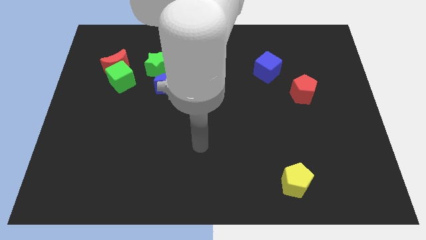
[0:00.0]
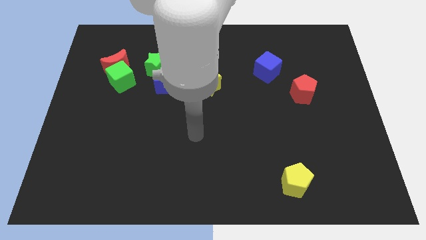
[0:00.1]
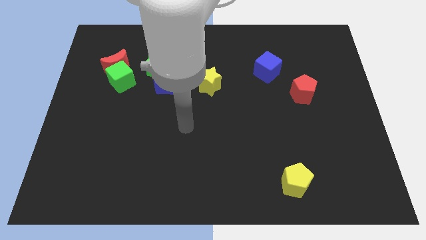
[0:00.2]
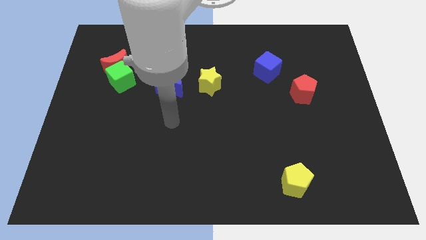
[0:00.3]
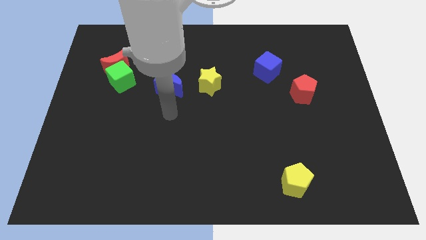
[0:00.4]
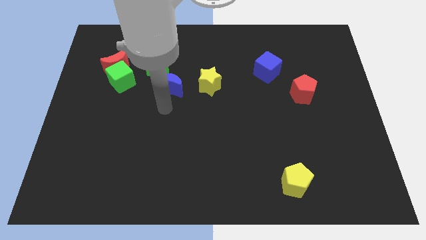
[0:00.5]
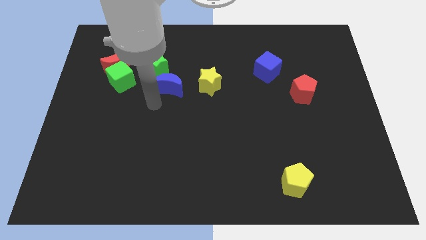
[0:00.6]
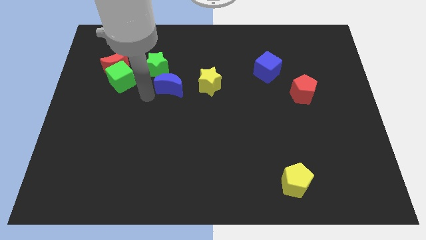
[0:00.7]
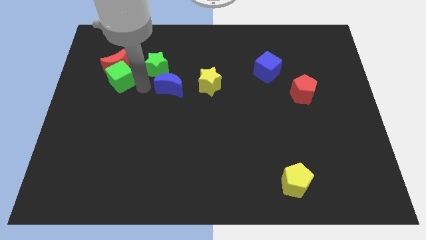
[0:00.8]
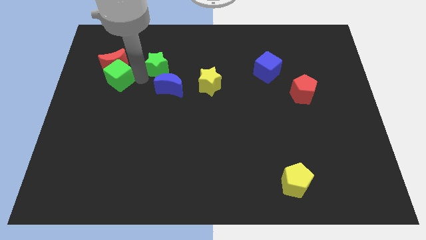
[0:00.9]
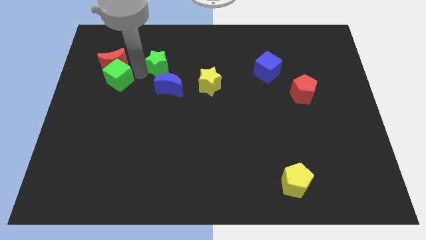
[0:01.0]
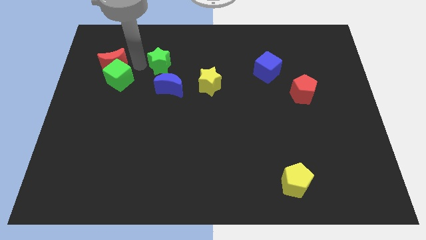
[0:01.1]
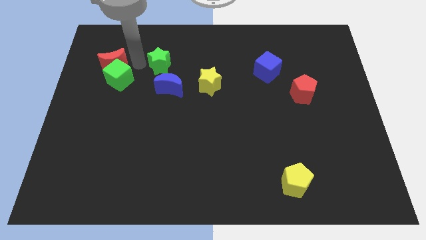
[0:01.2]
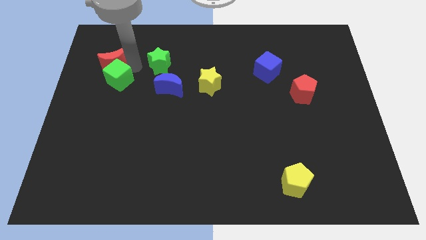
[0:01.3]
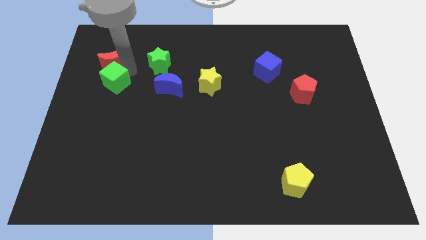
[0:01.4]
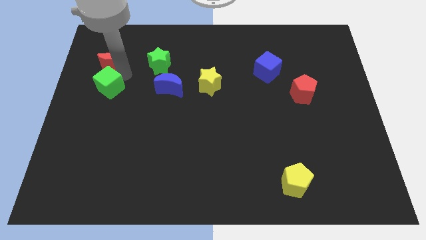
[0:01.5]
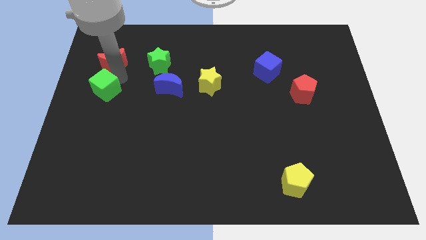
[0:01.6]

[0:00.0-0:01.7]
separate the green cube from the red moon and green star

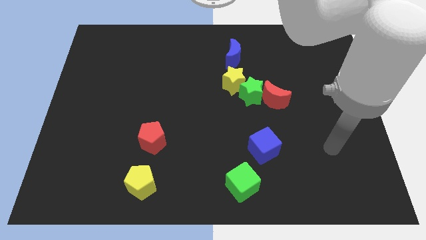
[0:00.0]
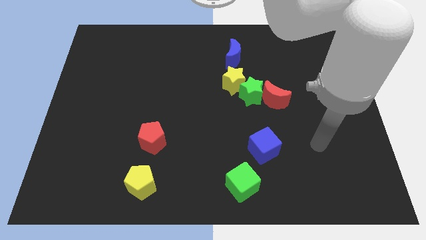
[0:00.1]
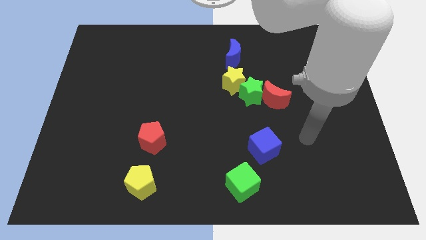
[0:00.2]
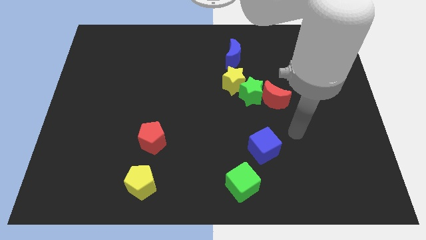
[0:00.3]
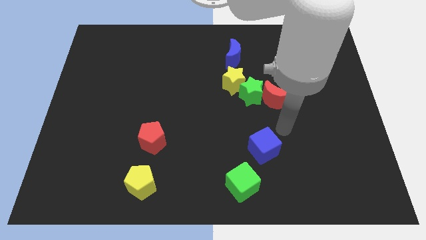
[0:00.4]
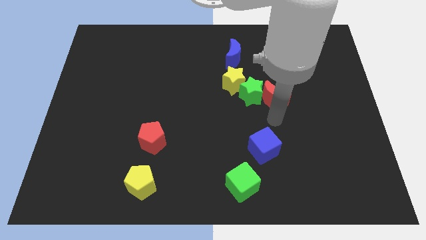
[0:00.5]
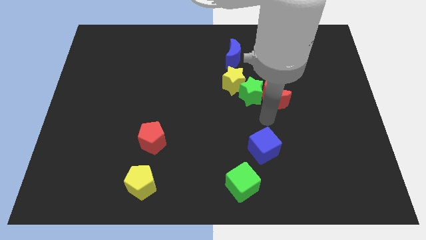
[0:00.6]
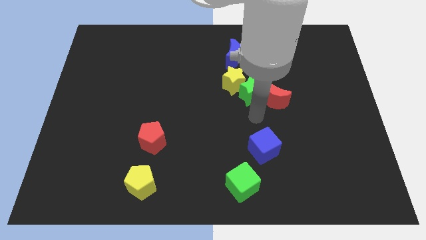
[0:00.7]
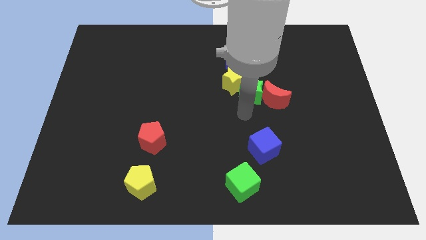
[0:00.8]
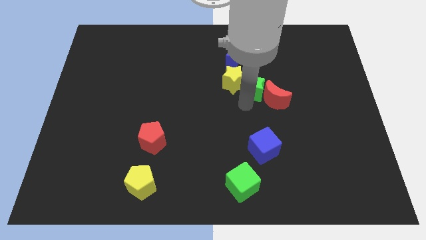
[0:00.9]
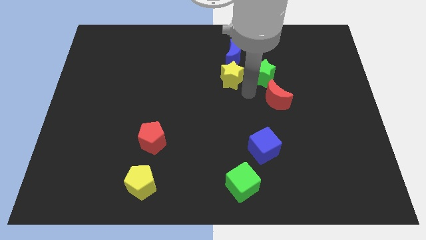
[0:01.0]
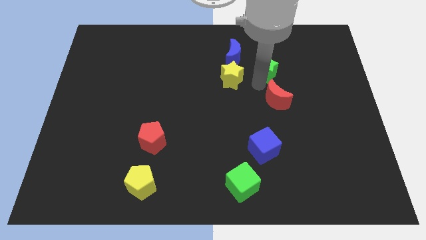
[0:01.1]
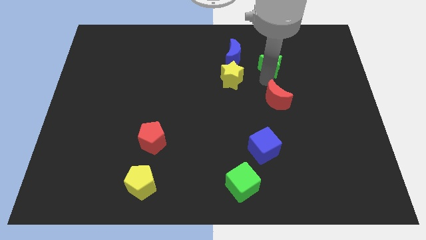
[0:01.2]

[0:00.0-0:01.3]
move the red moon away from the green star

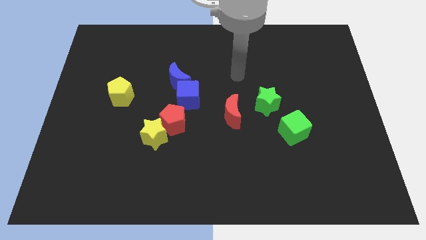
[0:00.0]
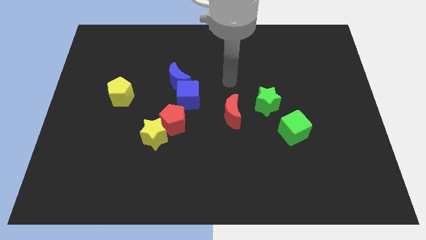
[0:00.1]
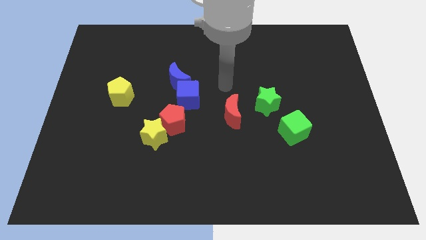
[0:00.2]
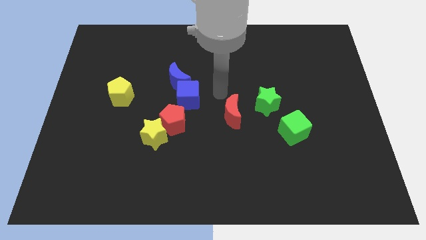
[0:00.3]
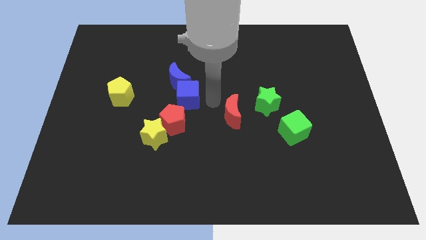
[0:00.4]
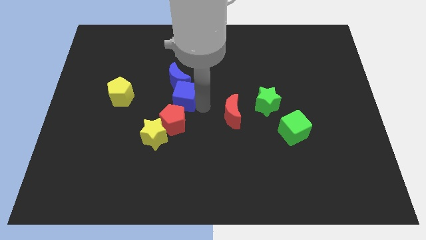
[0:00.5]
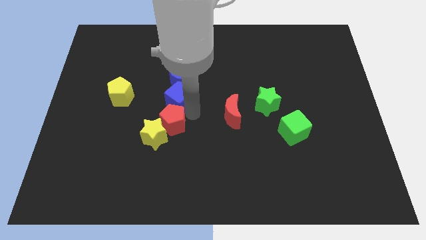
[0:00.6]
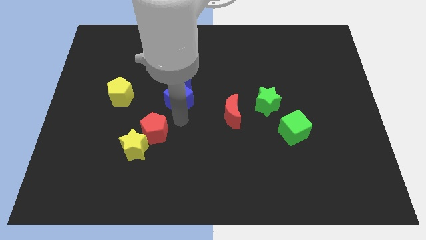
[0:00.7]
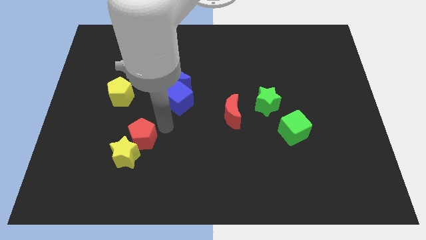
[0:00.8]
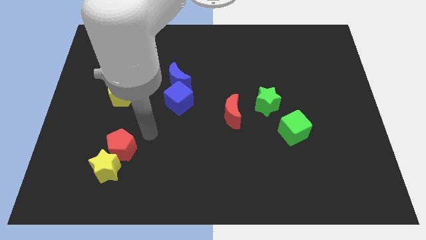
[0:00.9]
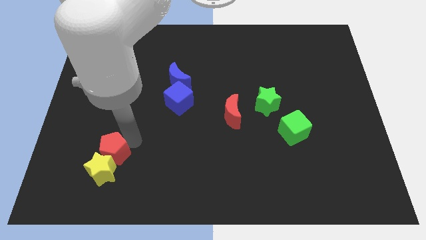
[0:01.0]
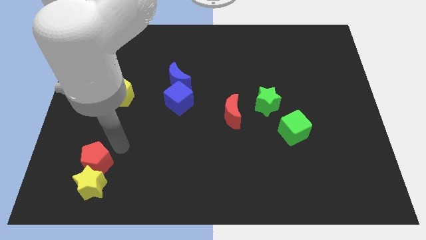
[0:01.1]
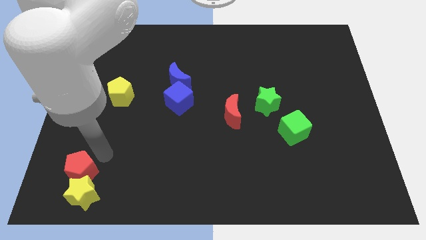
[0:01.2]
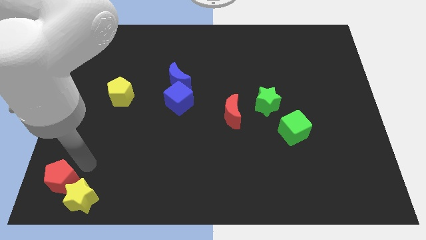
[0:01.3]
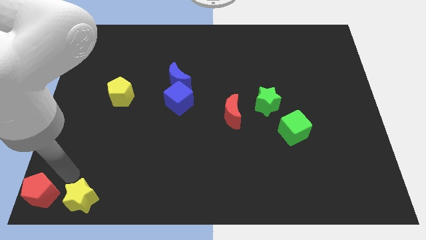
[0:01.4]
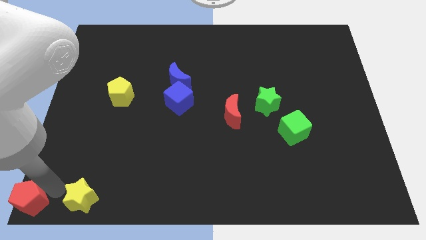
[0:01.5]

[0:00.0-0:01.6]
pull the yellow star apart from the red pentagon

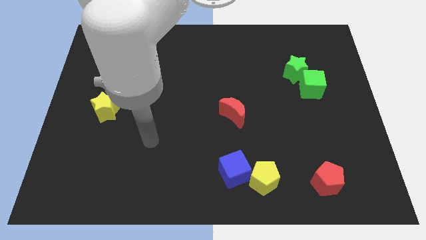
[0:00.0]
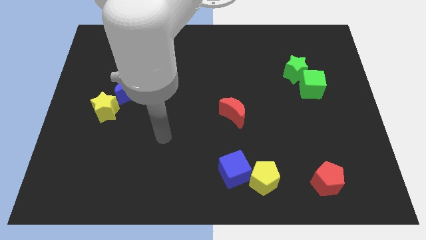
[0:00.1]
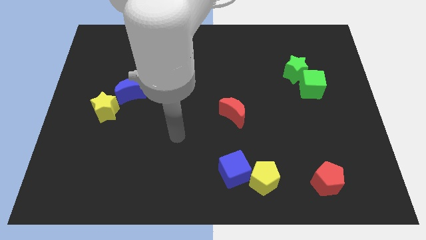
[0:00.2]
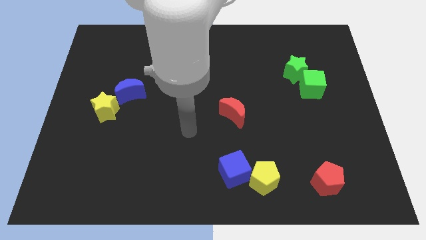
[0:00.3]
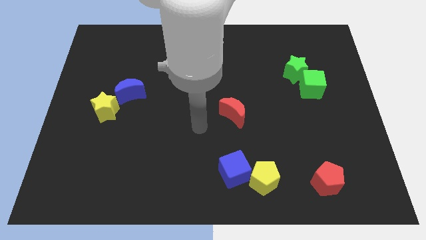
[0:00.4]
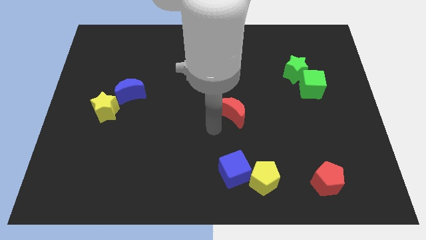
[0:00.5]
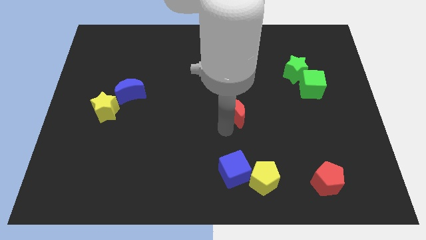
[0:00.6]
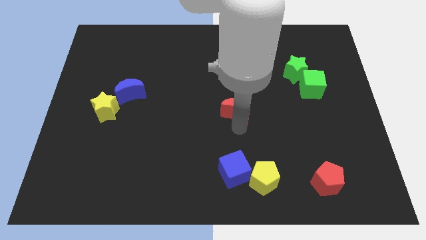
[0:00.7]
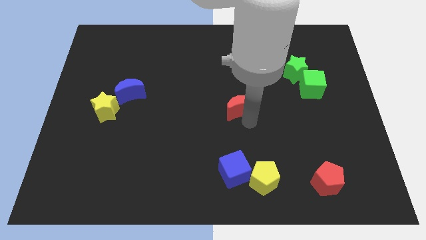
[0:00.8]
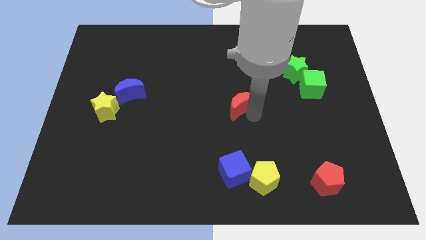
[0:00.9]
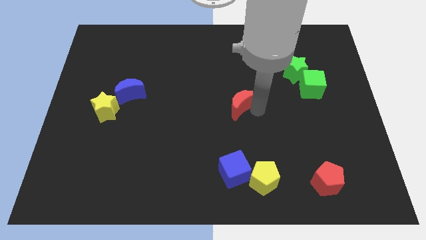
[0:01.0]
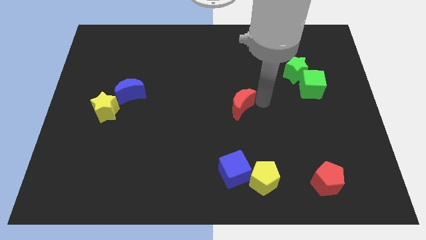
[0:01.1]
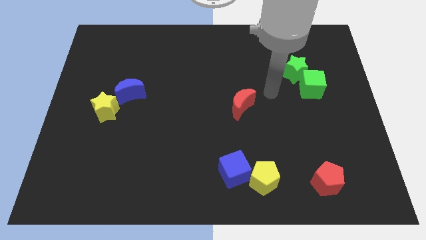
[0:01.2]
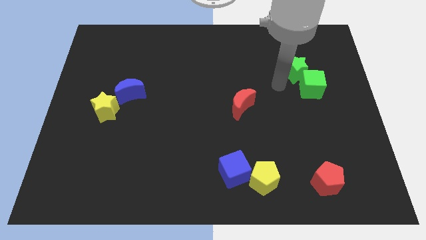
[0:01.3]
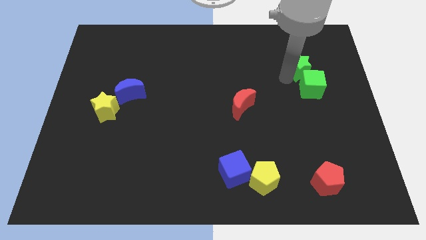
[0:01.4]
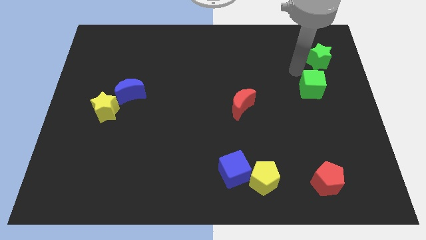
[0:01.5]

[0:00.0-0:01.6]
pull the green cube apart from the green star

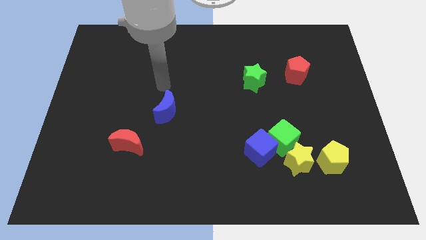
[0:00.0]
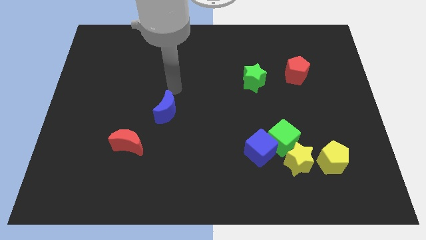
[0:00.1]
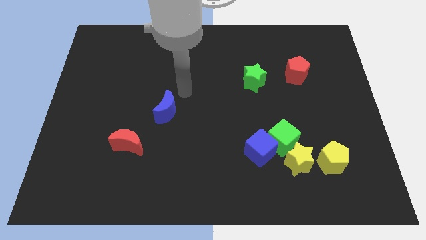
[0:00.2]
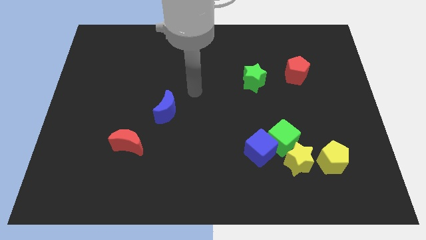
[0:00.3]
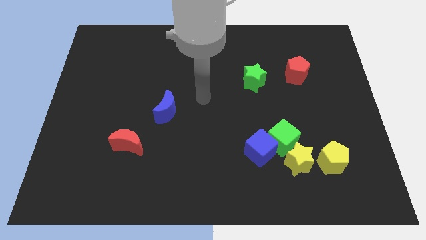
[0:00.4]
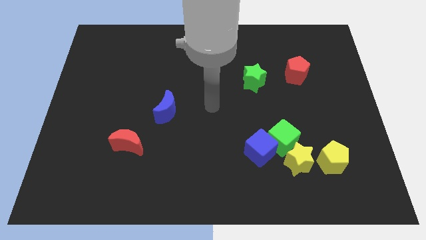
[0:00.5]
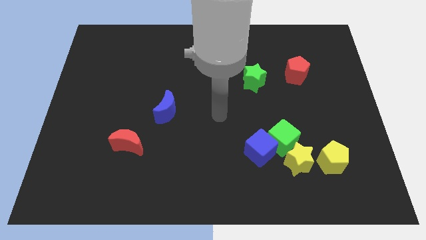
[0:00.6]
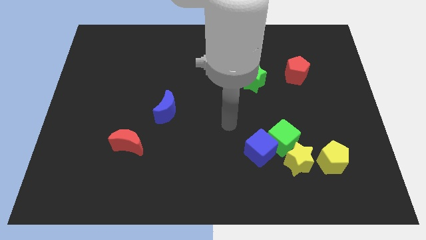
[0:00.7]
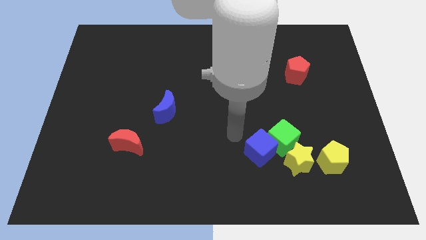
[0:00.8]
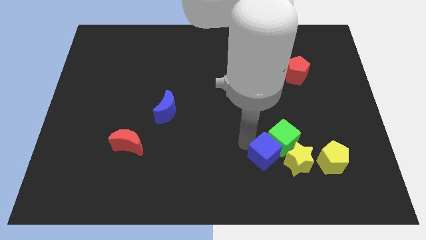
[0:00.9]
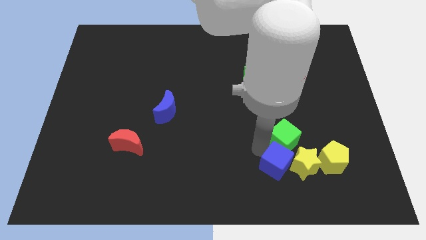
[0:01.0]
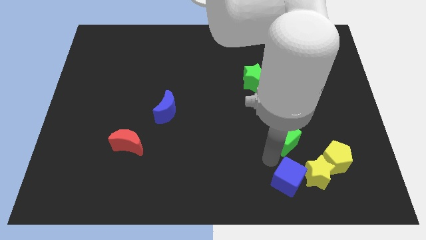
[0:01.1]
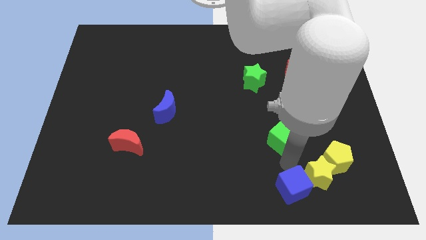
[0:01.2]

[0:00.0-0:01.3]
move the green cube away from the blue cube and yellow star

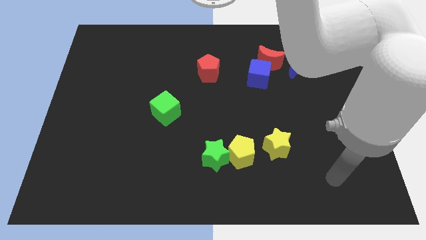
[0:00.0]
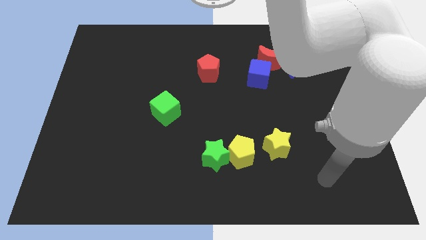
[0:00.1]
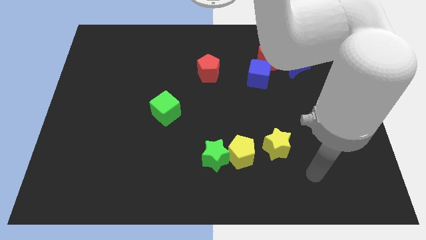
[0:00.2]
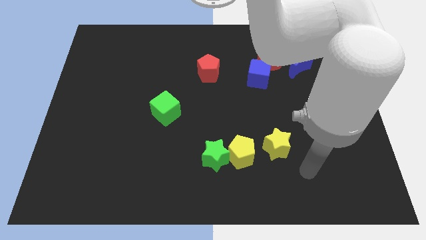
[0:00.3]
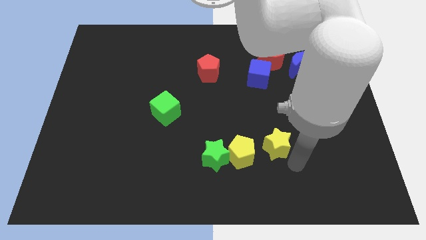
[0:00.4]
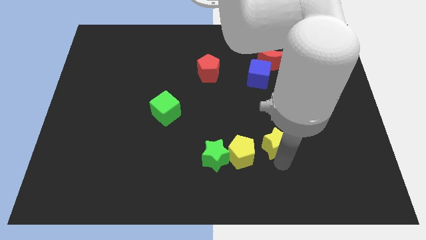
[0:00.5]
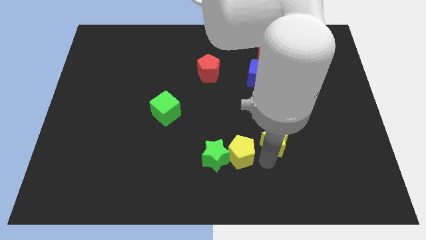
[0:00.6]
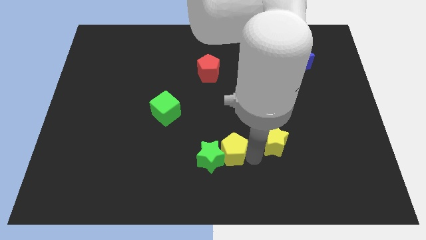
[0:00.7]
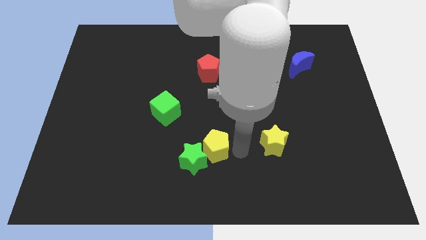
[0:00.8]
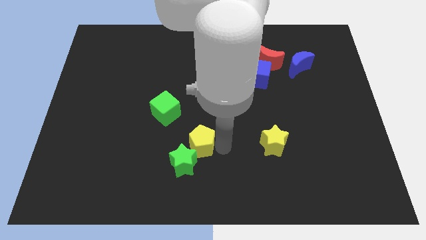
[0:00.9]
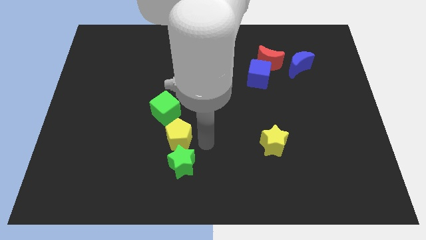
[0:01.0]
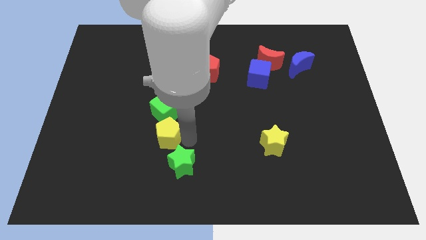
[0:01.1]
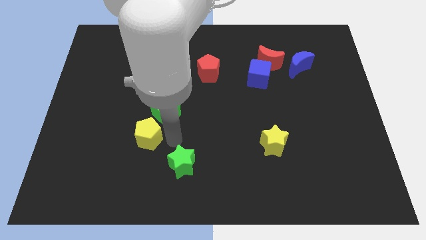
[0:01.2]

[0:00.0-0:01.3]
pull the green star apart from the yellow pentagon

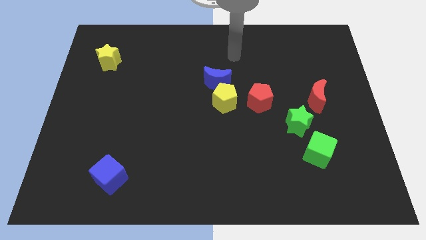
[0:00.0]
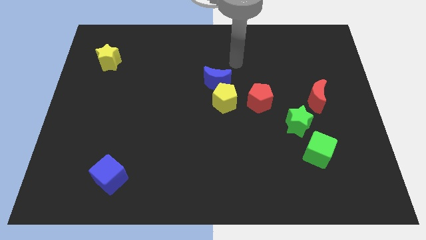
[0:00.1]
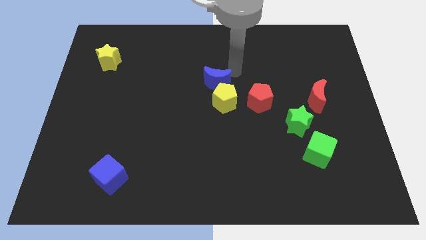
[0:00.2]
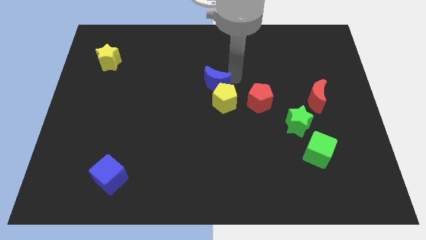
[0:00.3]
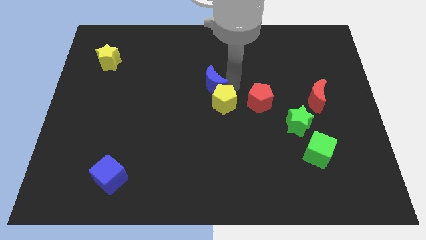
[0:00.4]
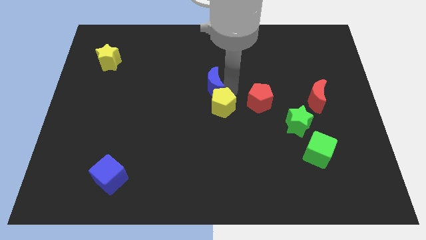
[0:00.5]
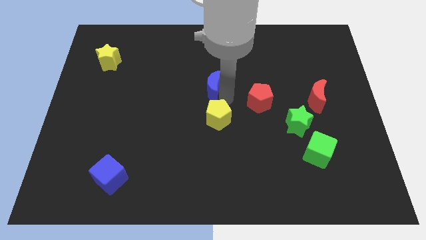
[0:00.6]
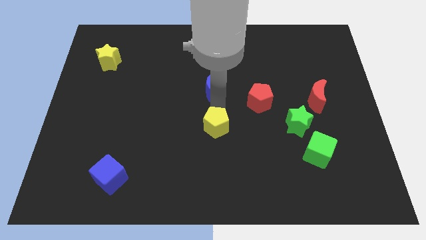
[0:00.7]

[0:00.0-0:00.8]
move the blue moon away from the yellow pentagon
